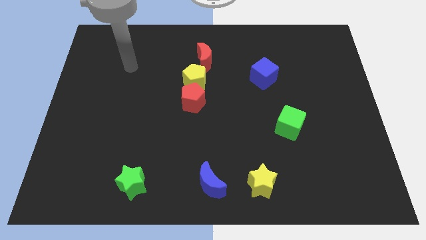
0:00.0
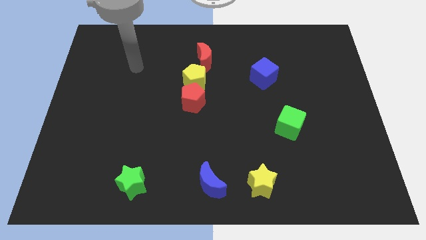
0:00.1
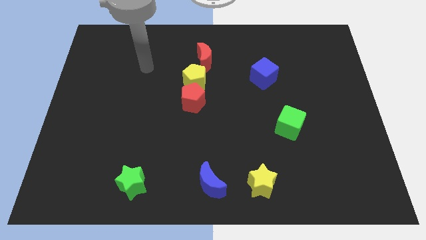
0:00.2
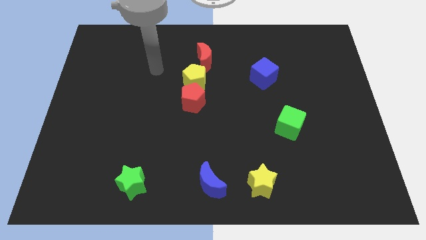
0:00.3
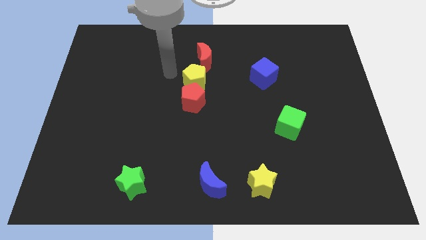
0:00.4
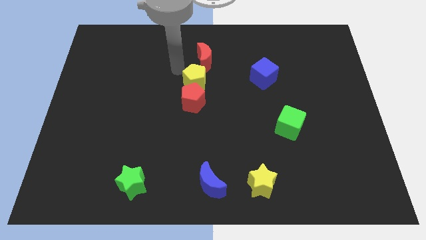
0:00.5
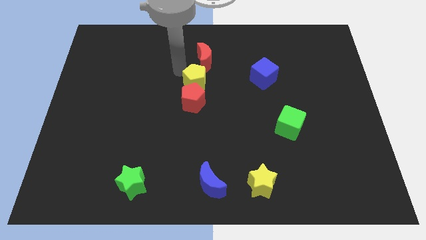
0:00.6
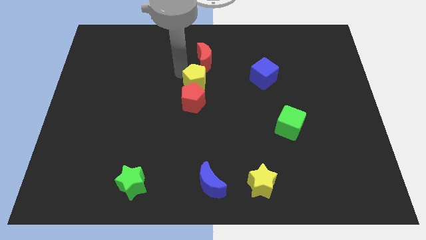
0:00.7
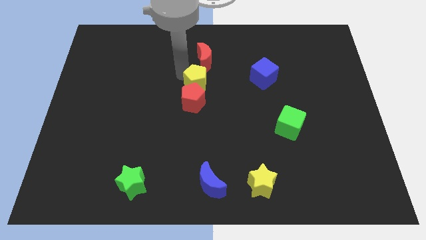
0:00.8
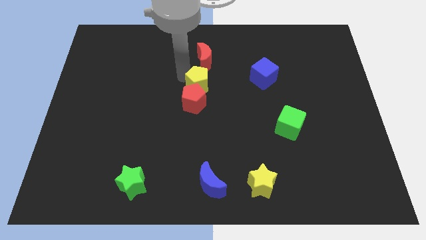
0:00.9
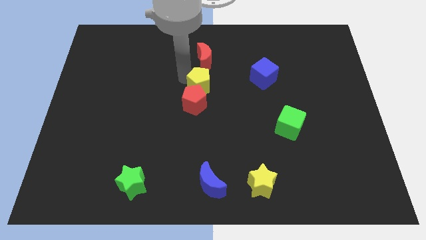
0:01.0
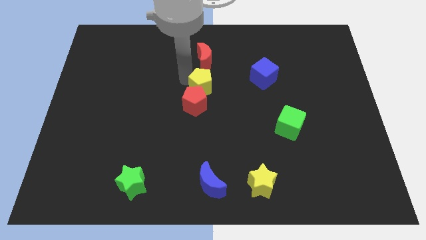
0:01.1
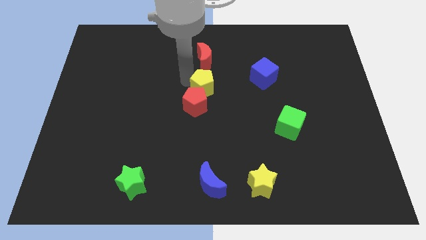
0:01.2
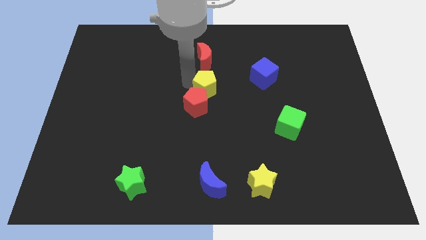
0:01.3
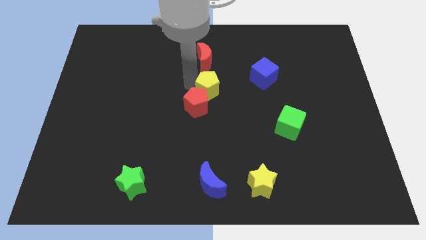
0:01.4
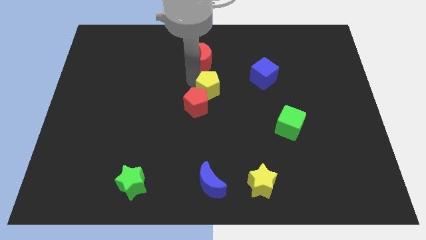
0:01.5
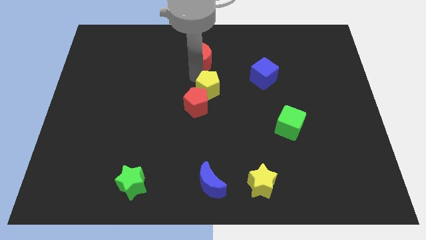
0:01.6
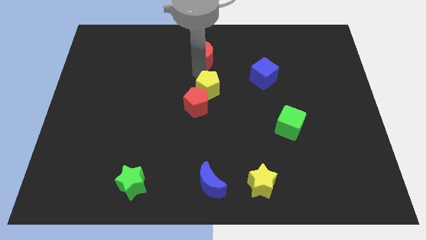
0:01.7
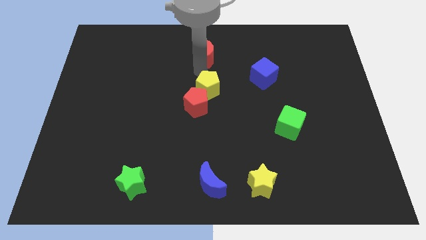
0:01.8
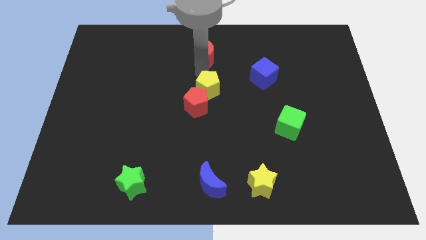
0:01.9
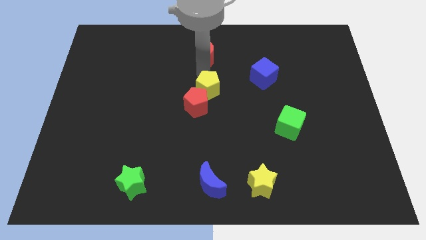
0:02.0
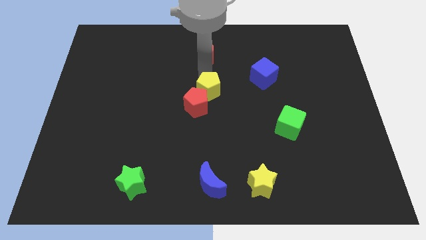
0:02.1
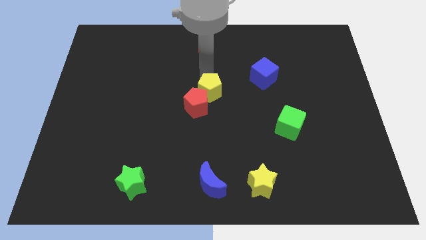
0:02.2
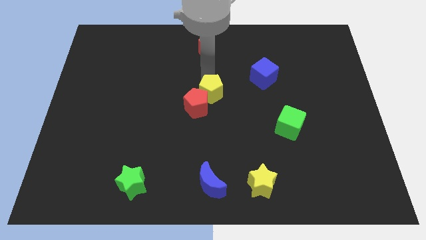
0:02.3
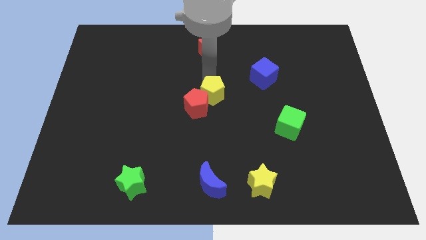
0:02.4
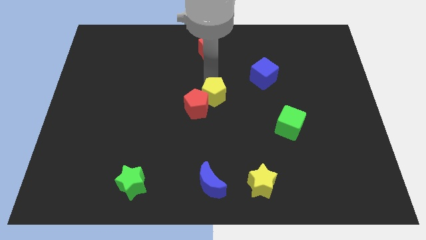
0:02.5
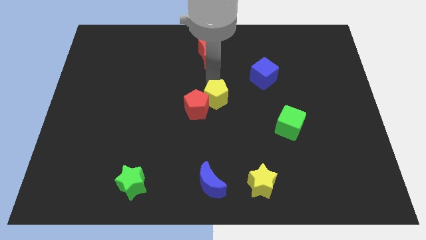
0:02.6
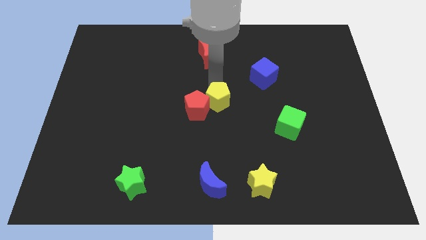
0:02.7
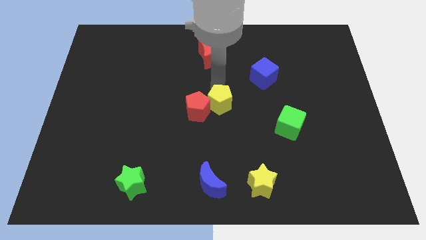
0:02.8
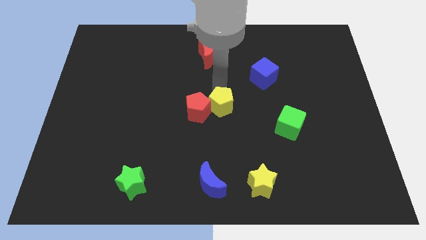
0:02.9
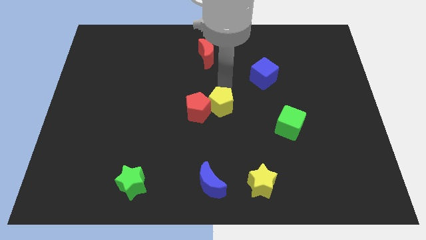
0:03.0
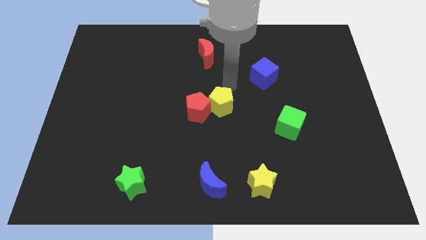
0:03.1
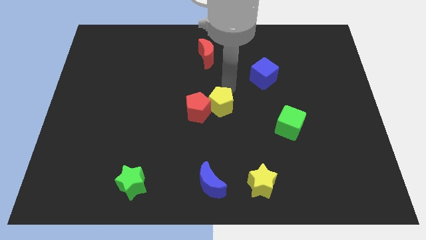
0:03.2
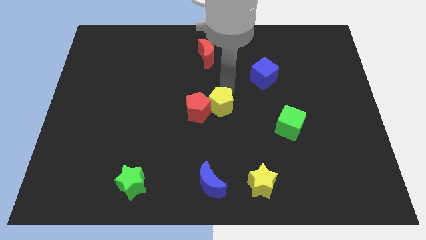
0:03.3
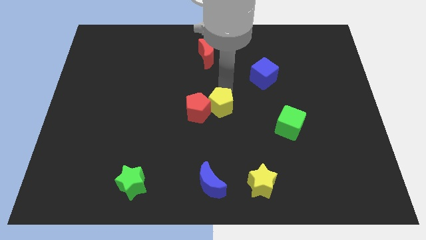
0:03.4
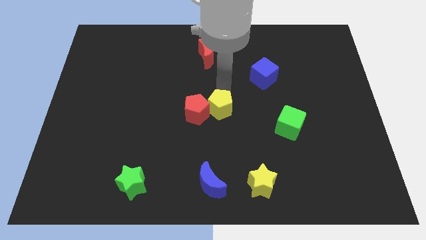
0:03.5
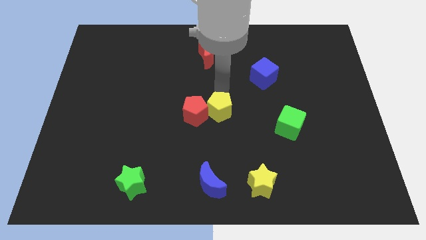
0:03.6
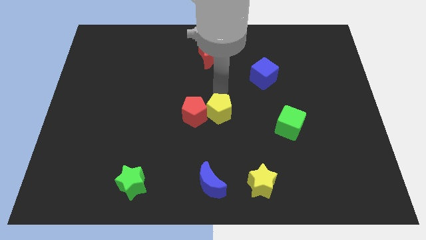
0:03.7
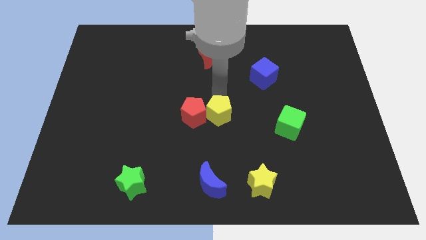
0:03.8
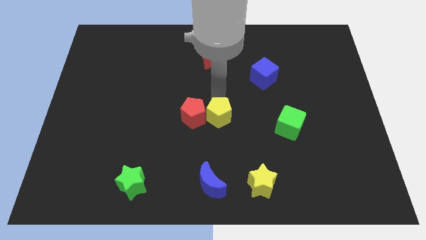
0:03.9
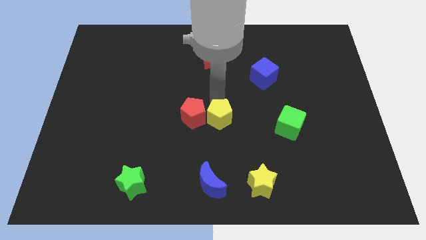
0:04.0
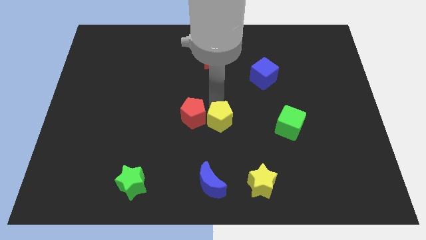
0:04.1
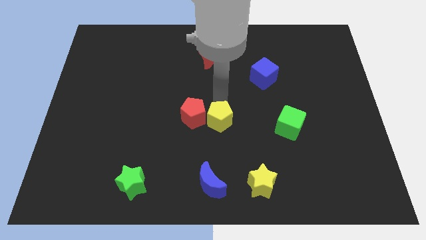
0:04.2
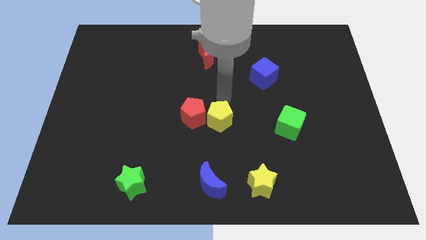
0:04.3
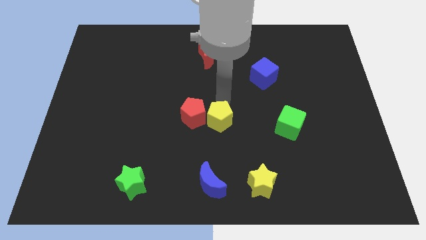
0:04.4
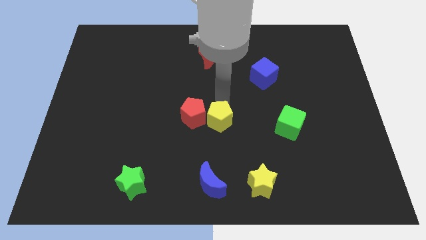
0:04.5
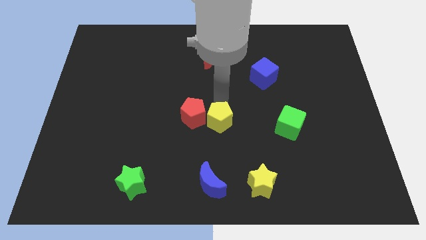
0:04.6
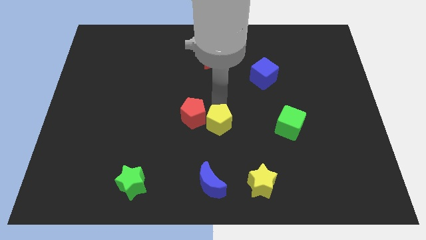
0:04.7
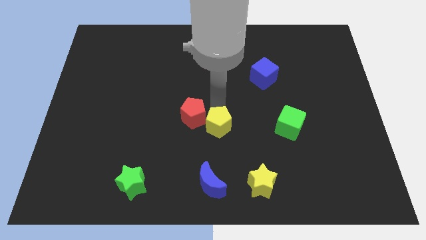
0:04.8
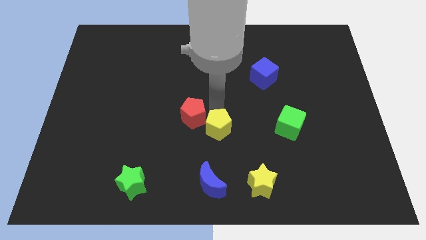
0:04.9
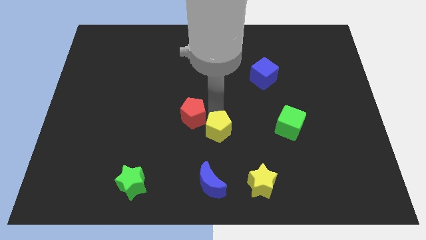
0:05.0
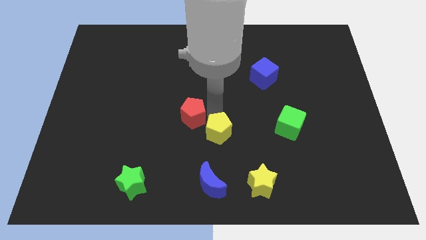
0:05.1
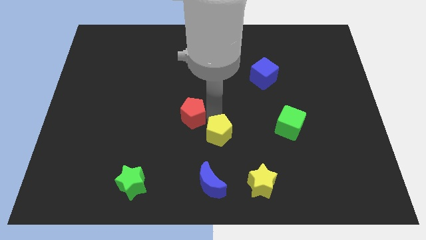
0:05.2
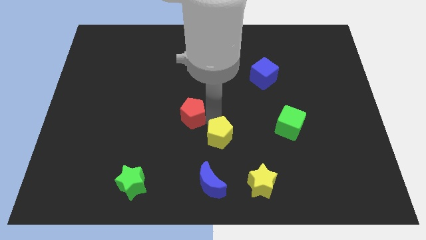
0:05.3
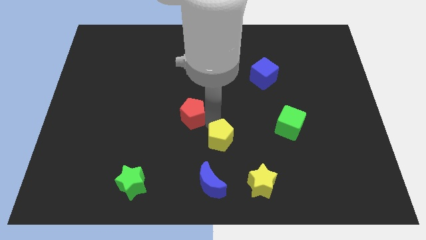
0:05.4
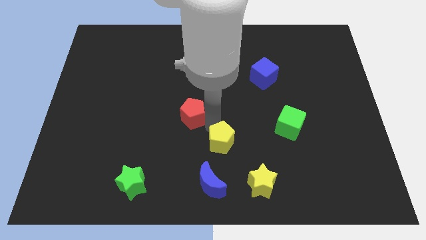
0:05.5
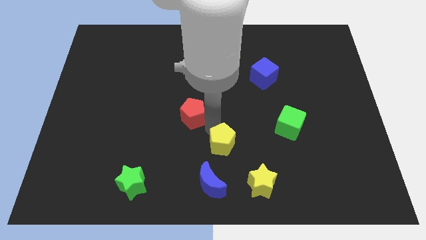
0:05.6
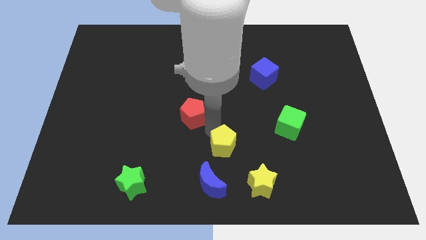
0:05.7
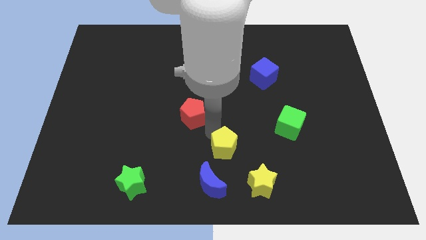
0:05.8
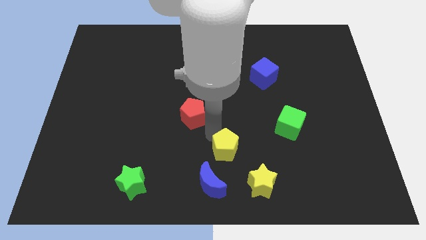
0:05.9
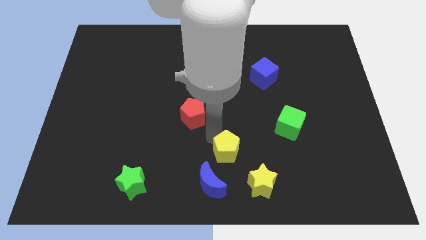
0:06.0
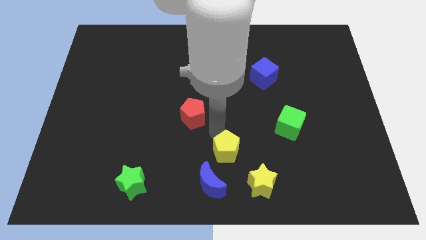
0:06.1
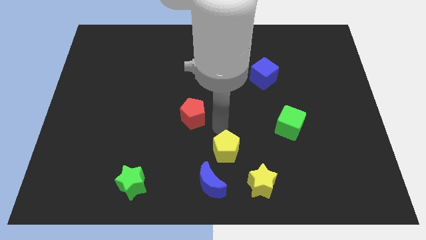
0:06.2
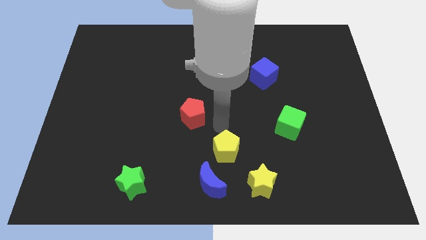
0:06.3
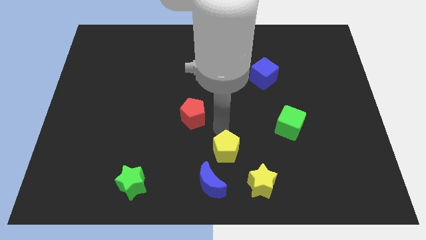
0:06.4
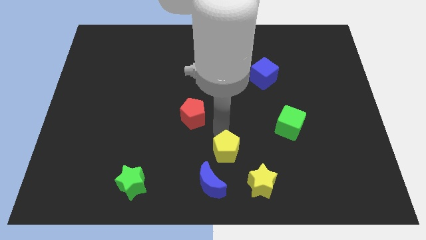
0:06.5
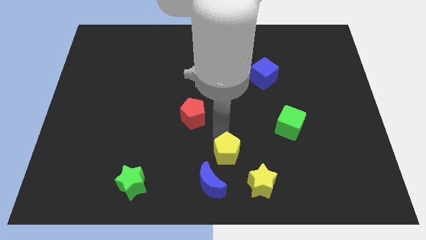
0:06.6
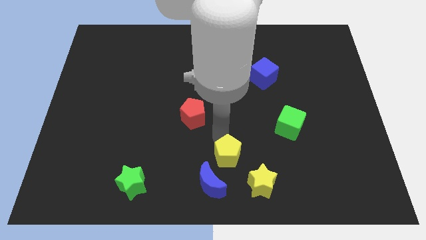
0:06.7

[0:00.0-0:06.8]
push the yellow pentagon to the bottom side

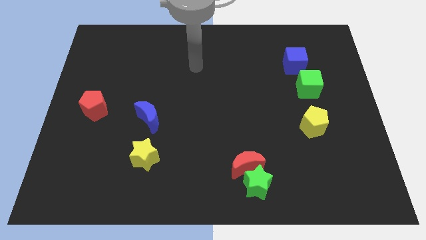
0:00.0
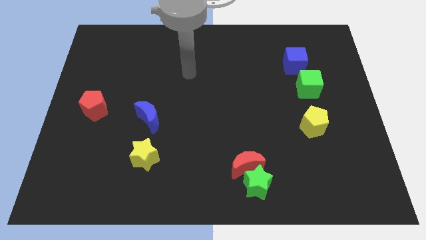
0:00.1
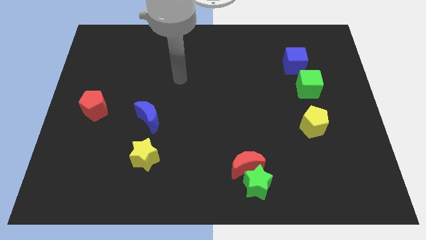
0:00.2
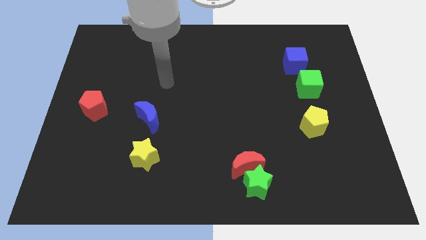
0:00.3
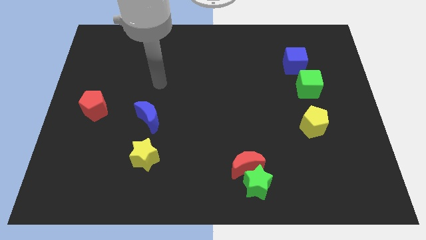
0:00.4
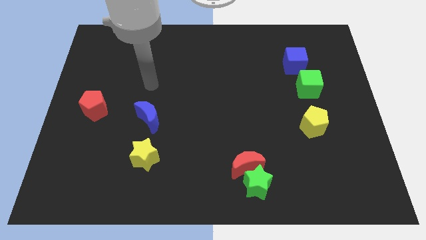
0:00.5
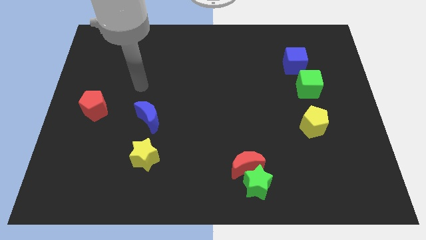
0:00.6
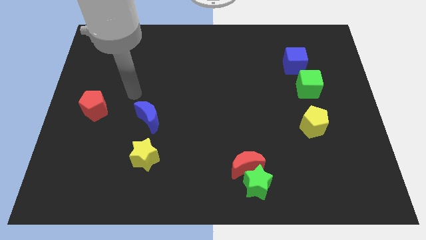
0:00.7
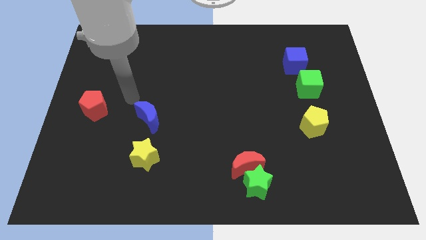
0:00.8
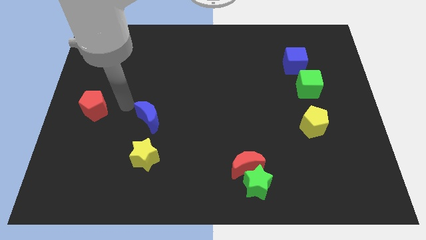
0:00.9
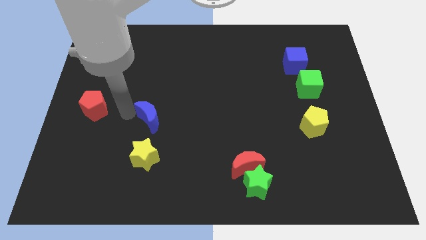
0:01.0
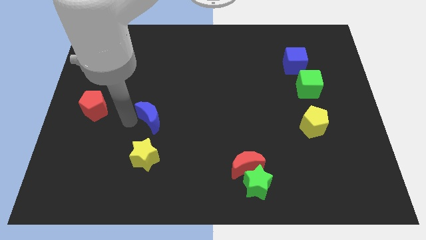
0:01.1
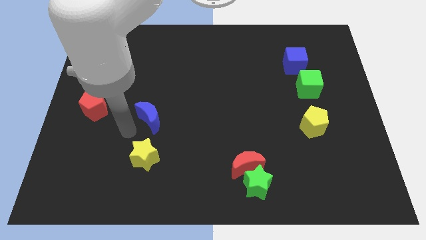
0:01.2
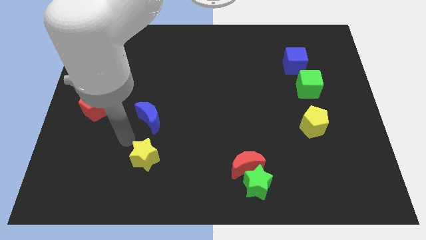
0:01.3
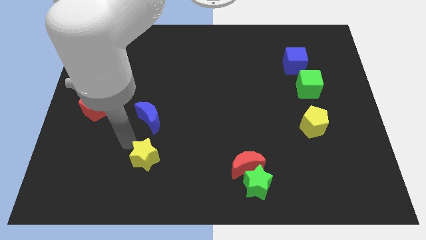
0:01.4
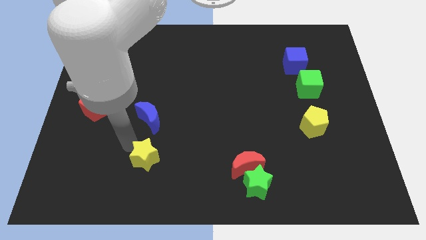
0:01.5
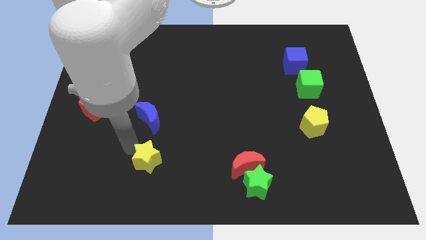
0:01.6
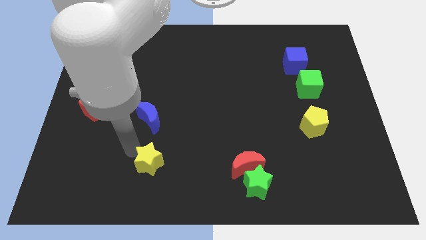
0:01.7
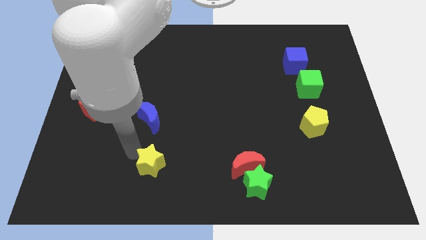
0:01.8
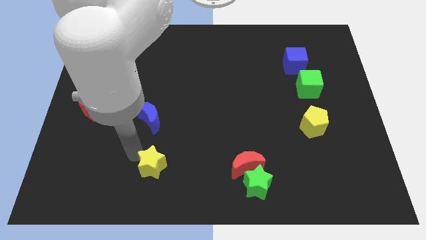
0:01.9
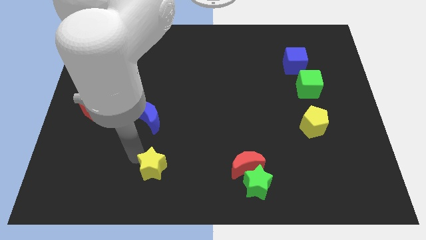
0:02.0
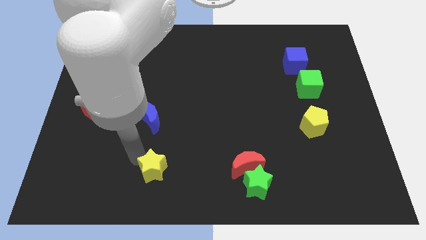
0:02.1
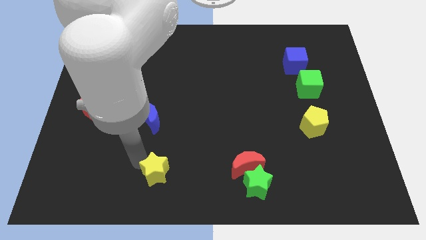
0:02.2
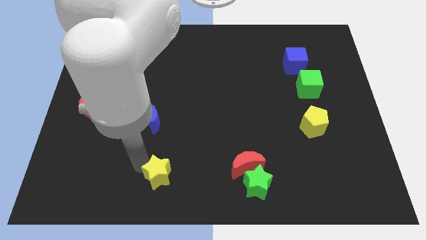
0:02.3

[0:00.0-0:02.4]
put the yellow star to the bottom side
